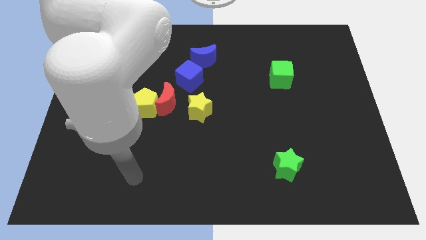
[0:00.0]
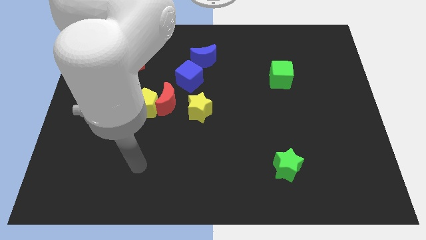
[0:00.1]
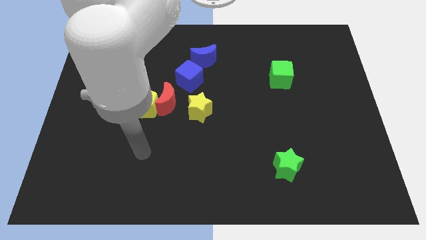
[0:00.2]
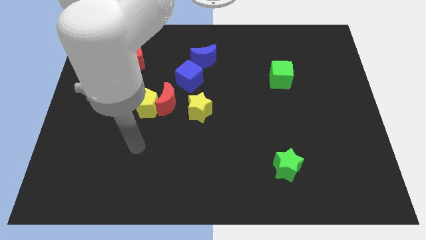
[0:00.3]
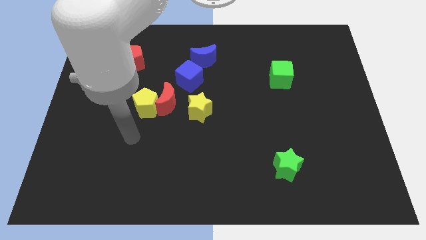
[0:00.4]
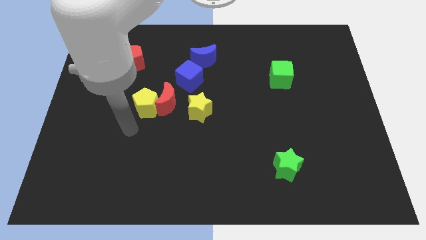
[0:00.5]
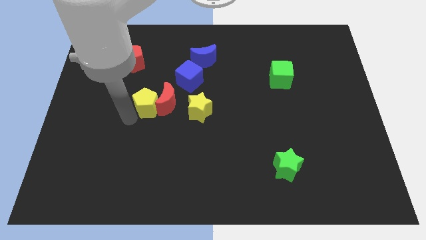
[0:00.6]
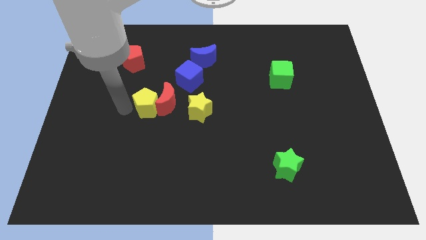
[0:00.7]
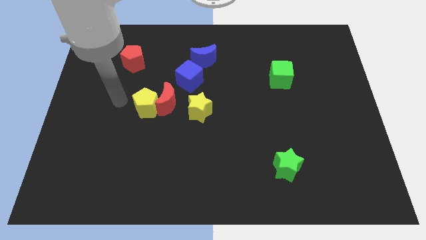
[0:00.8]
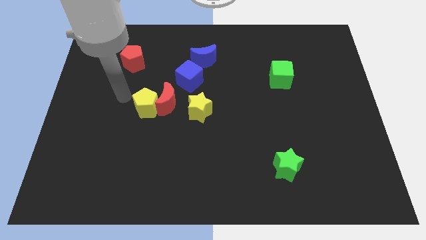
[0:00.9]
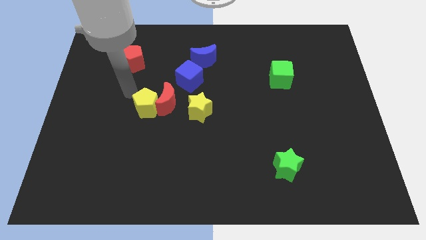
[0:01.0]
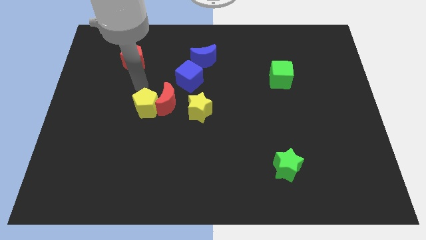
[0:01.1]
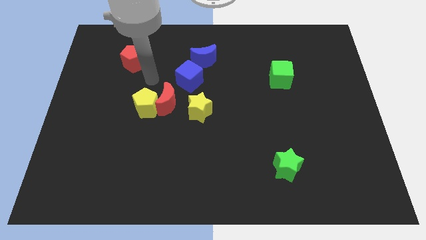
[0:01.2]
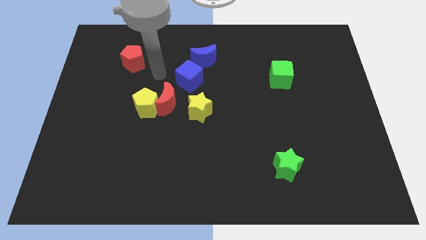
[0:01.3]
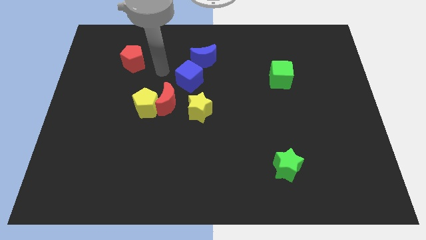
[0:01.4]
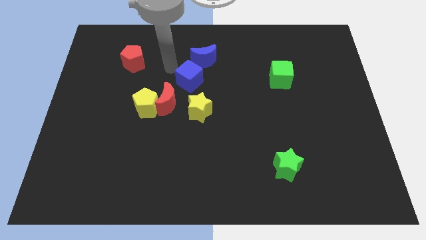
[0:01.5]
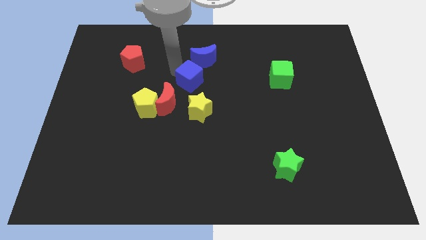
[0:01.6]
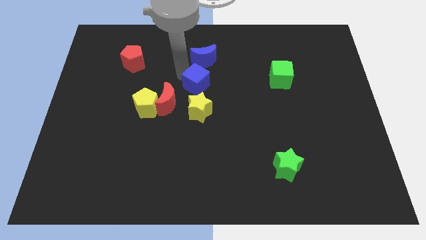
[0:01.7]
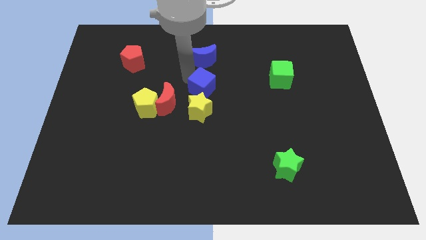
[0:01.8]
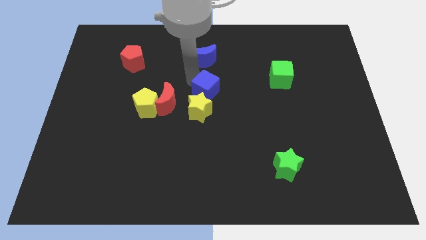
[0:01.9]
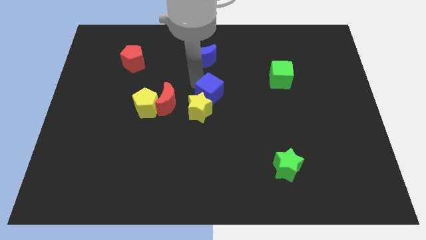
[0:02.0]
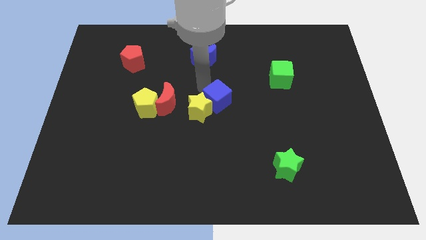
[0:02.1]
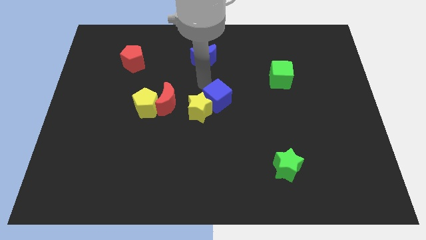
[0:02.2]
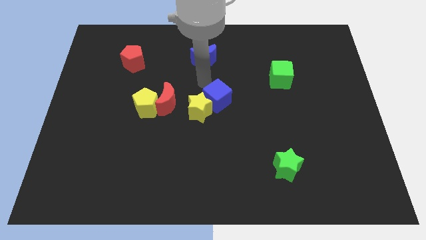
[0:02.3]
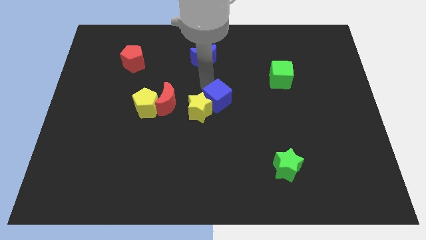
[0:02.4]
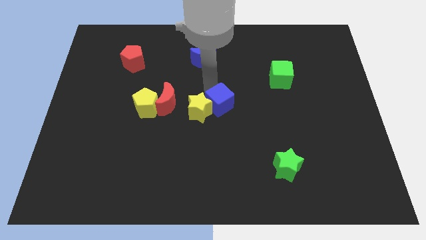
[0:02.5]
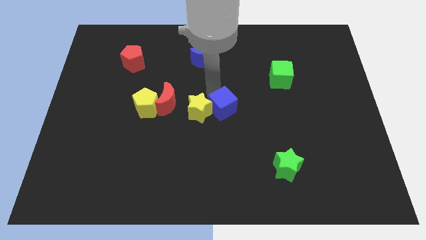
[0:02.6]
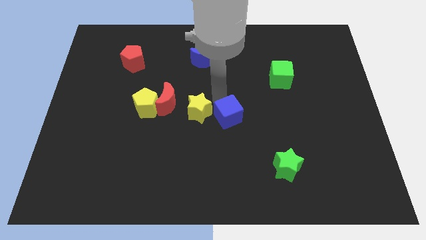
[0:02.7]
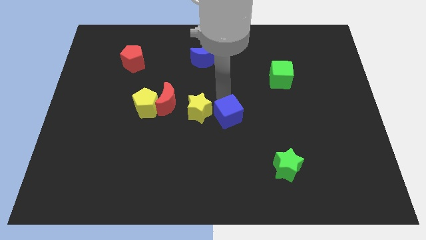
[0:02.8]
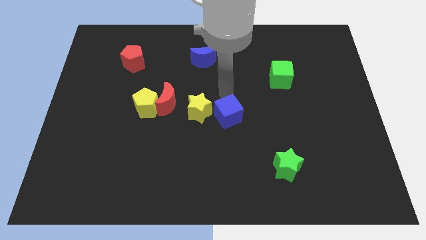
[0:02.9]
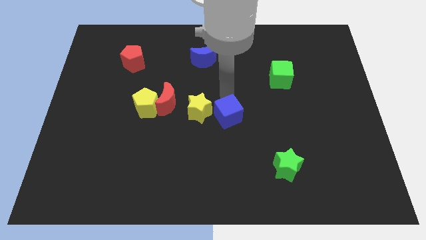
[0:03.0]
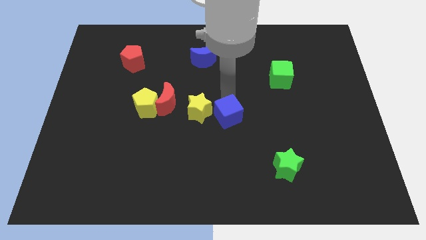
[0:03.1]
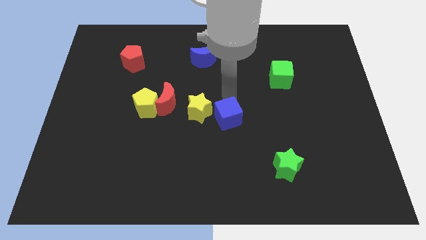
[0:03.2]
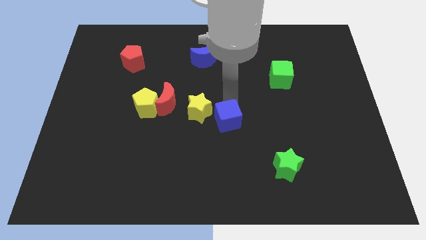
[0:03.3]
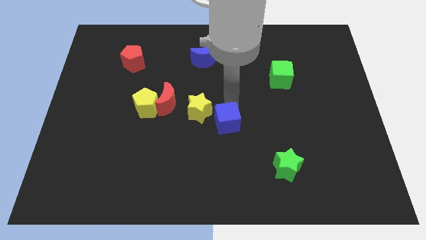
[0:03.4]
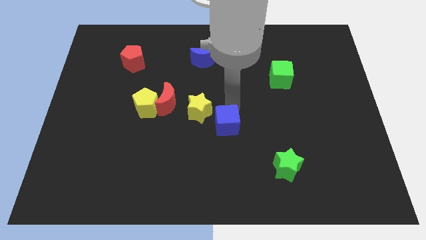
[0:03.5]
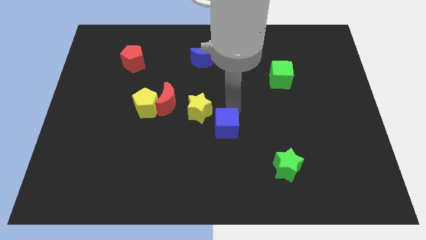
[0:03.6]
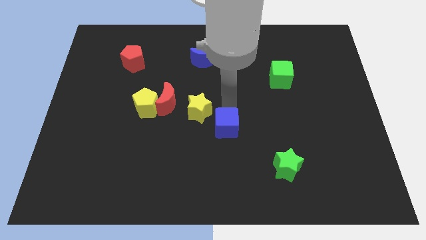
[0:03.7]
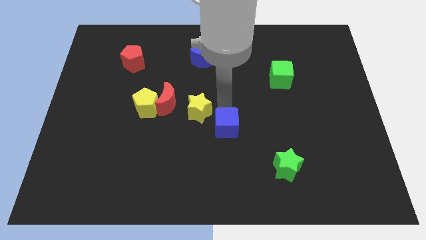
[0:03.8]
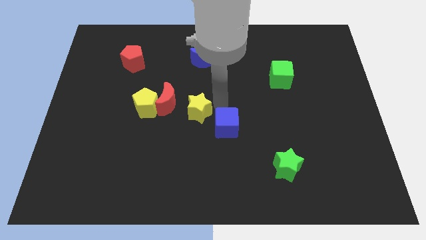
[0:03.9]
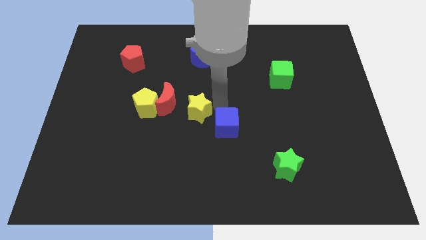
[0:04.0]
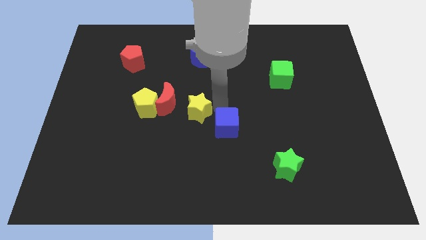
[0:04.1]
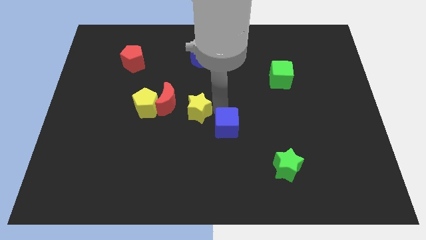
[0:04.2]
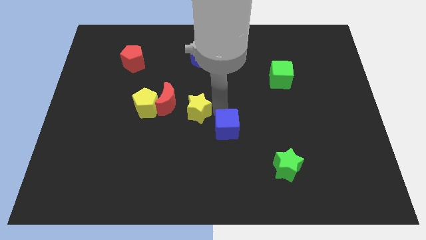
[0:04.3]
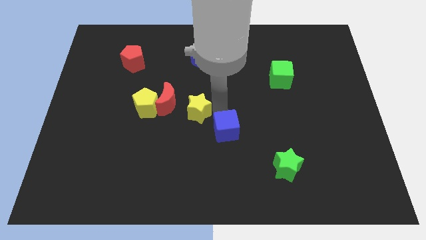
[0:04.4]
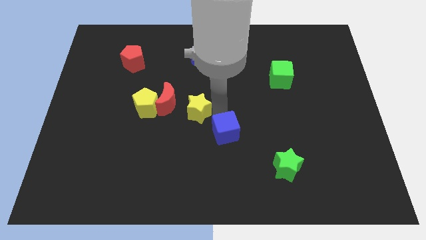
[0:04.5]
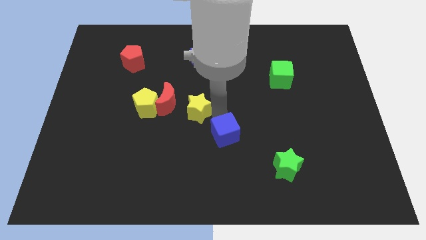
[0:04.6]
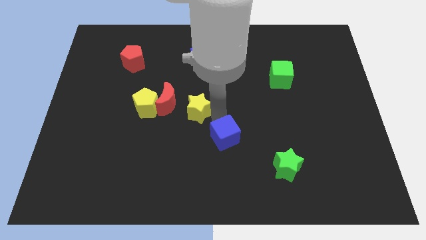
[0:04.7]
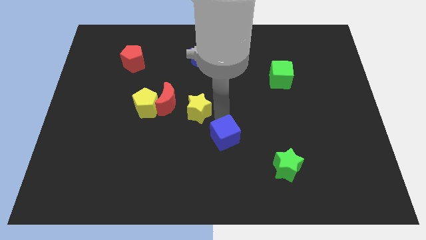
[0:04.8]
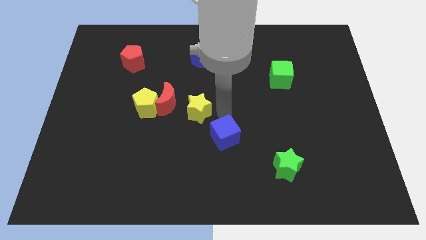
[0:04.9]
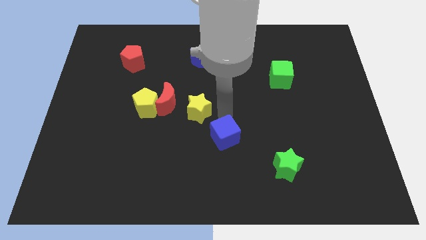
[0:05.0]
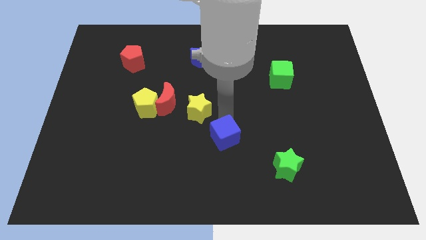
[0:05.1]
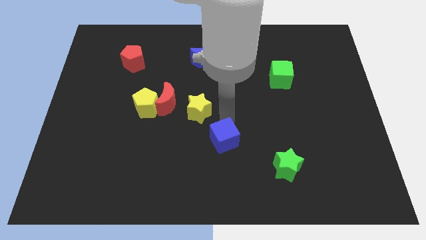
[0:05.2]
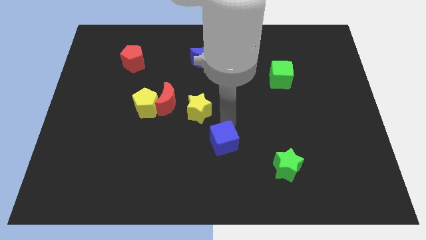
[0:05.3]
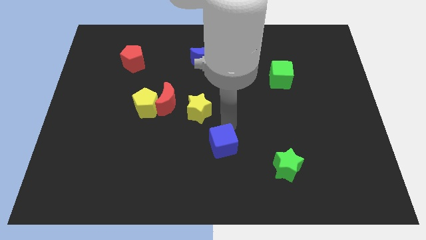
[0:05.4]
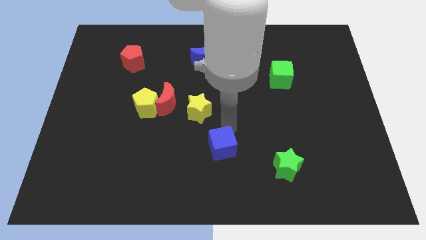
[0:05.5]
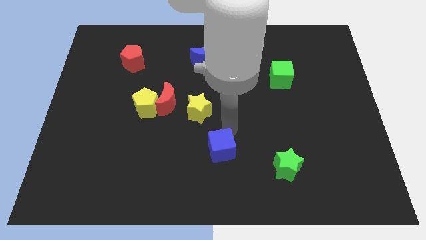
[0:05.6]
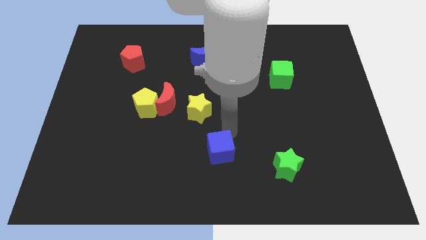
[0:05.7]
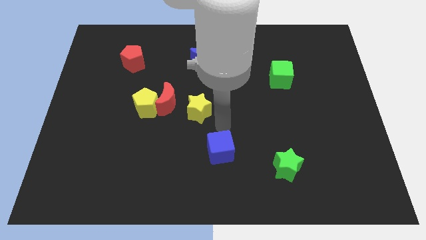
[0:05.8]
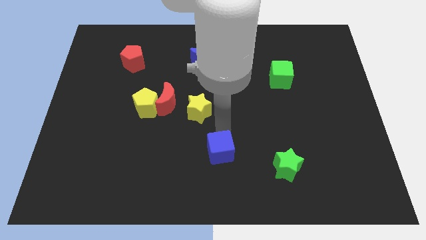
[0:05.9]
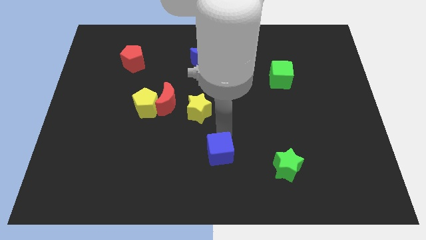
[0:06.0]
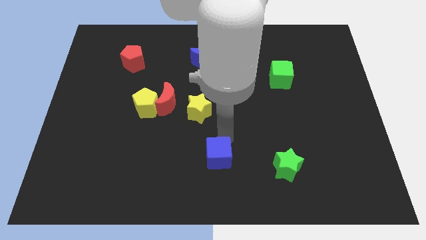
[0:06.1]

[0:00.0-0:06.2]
slide the blue cube to the bottom side
